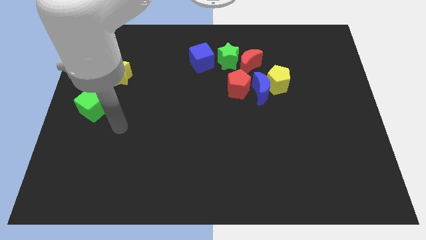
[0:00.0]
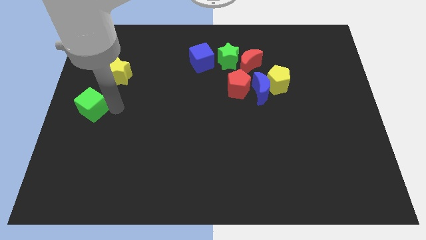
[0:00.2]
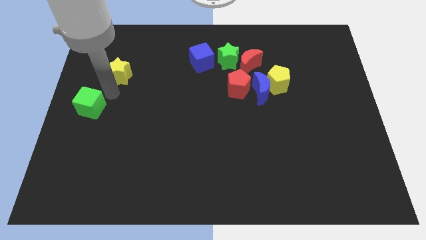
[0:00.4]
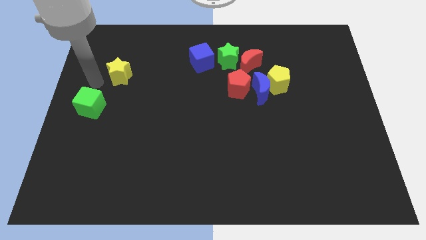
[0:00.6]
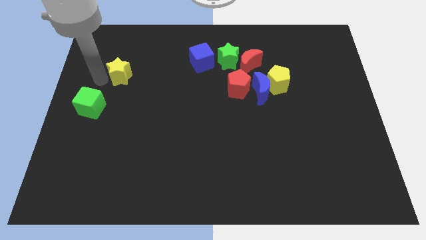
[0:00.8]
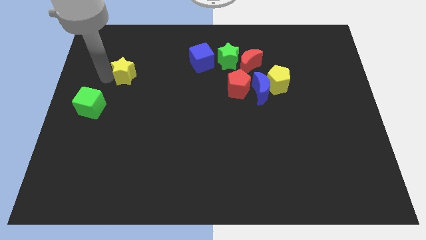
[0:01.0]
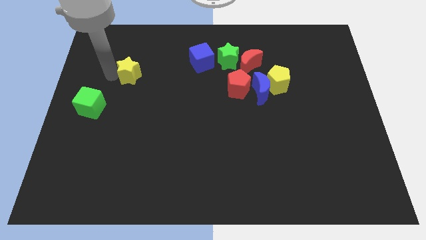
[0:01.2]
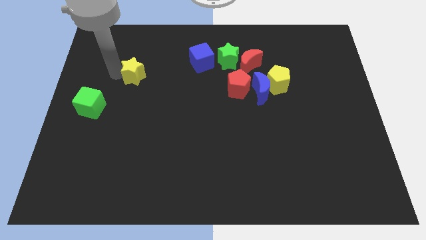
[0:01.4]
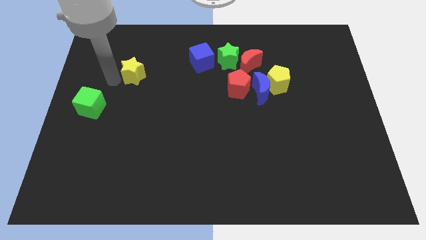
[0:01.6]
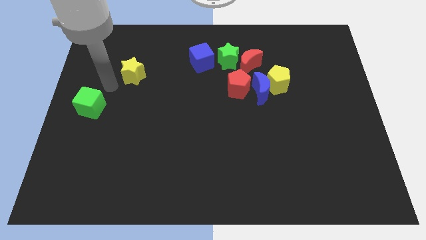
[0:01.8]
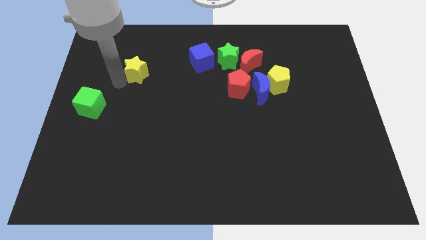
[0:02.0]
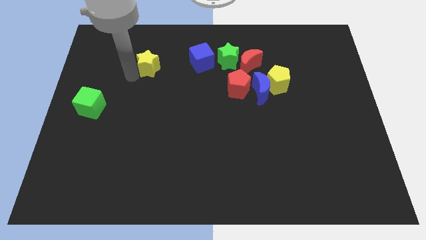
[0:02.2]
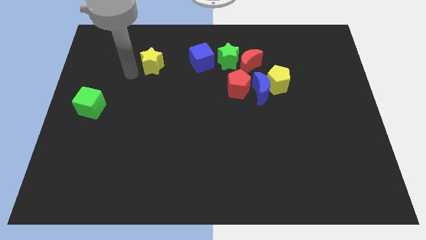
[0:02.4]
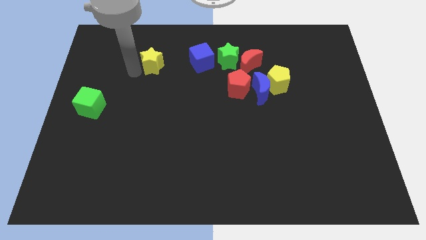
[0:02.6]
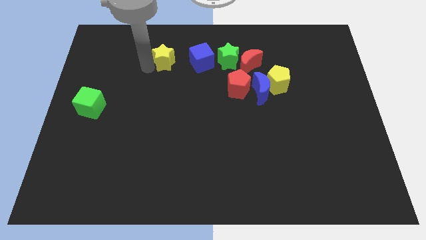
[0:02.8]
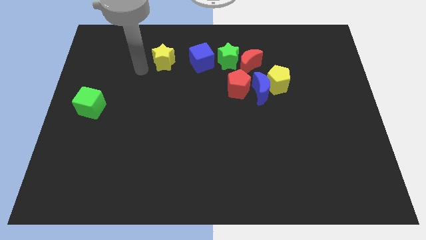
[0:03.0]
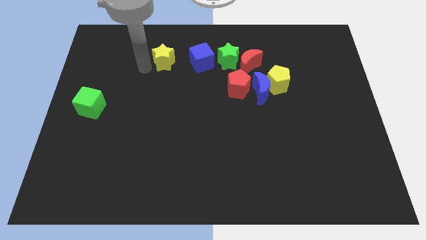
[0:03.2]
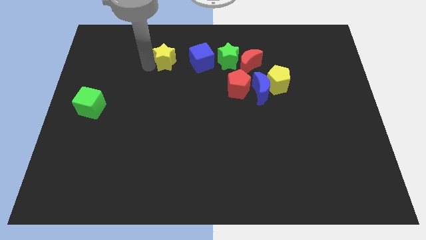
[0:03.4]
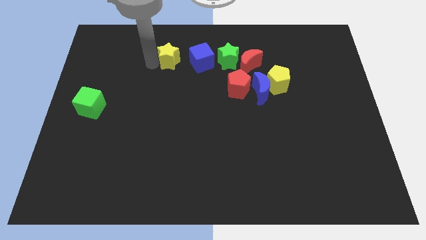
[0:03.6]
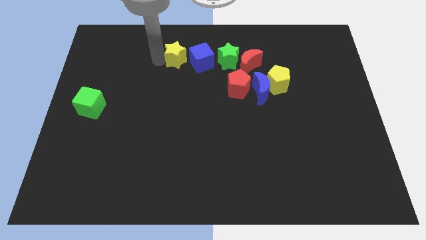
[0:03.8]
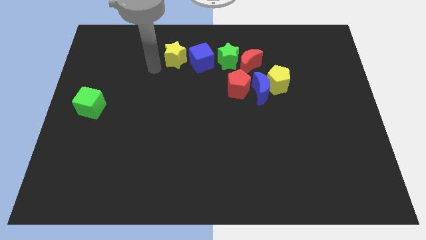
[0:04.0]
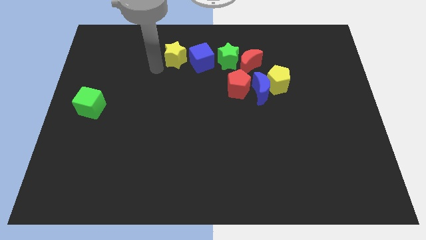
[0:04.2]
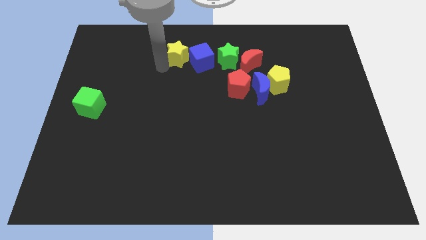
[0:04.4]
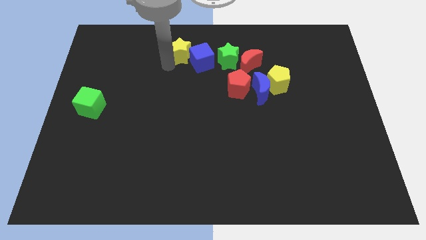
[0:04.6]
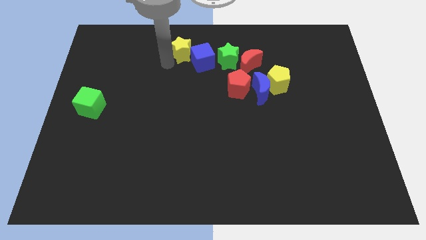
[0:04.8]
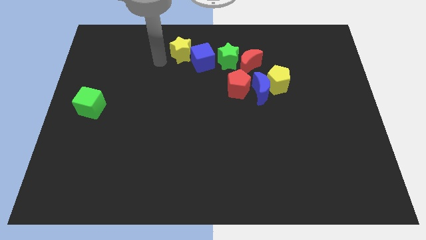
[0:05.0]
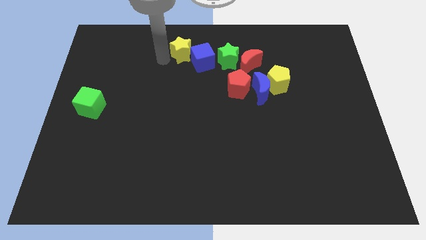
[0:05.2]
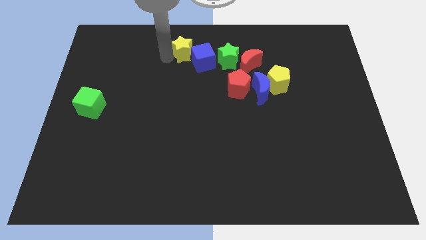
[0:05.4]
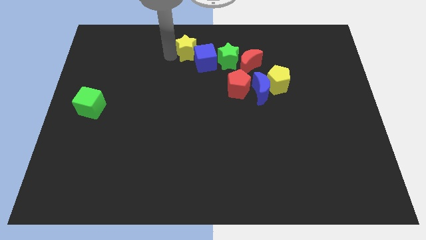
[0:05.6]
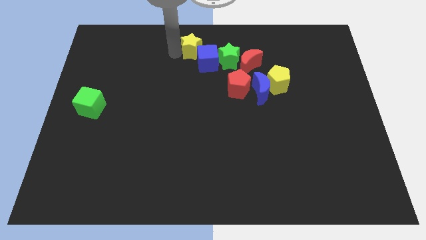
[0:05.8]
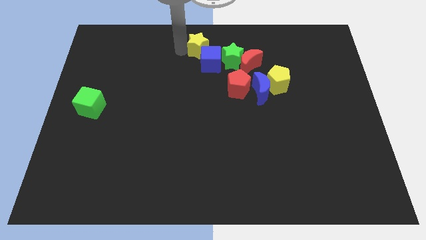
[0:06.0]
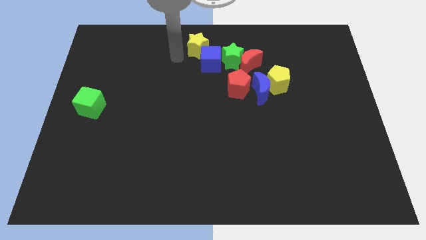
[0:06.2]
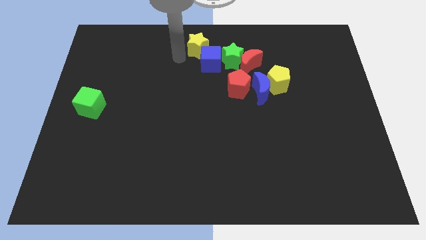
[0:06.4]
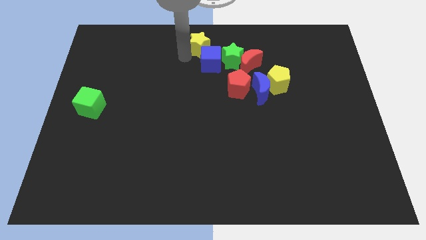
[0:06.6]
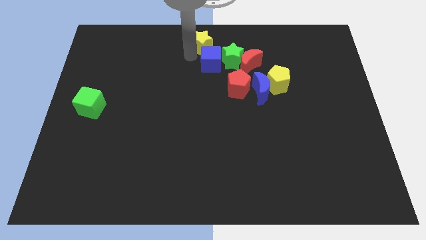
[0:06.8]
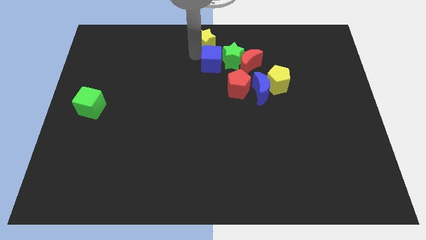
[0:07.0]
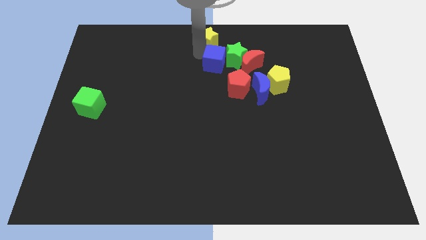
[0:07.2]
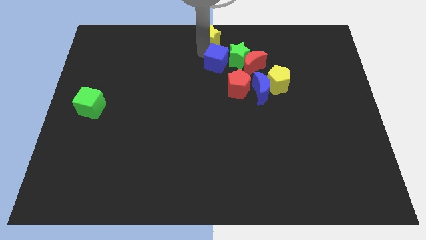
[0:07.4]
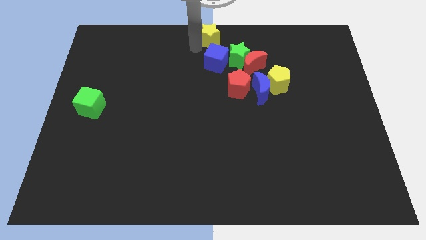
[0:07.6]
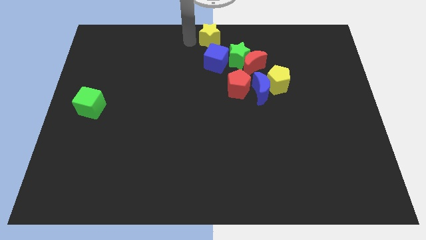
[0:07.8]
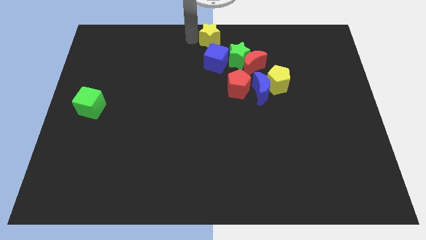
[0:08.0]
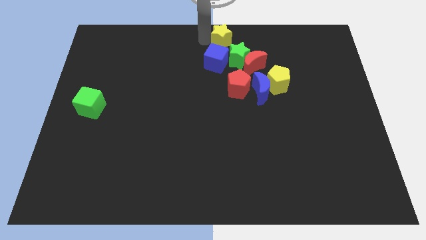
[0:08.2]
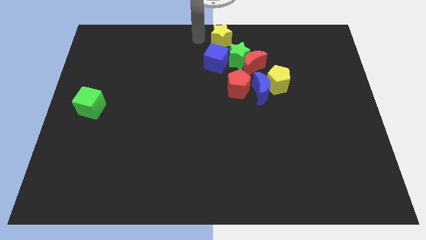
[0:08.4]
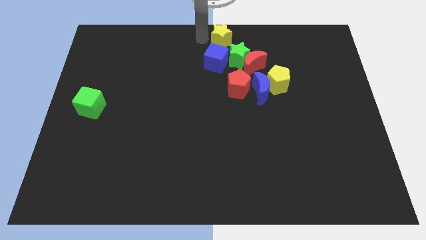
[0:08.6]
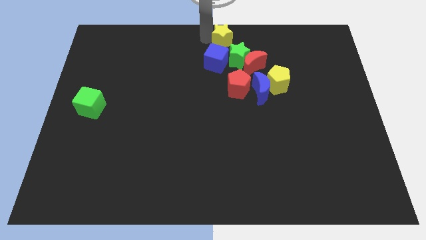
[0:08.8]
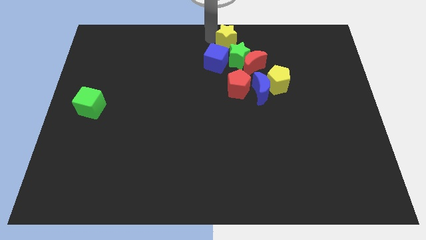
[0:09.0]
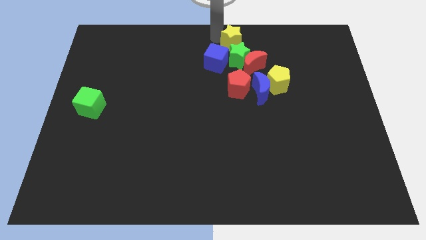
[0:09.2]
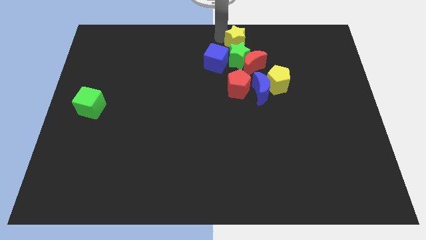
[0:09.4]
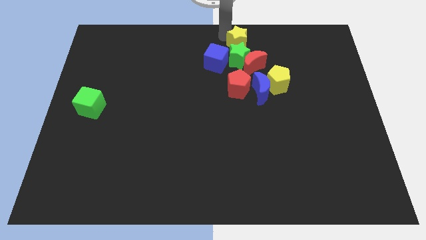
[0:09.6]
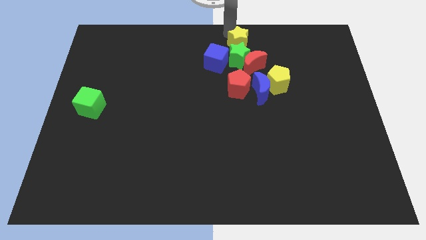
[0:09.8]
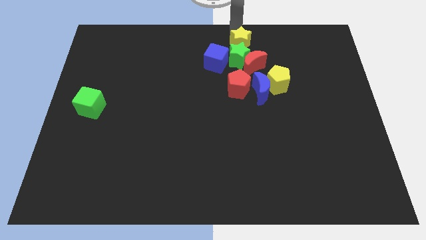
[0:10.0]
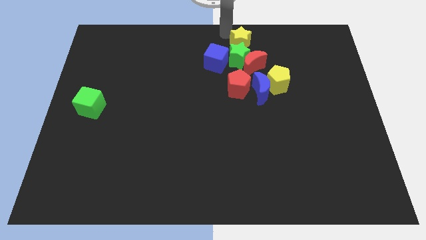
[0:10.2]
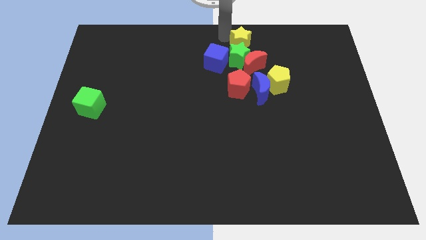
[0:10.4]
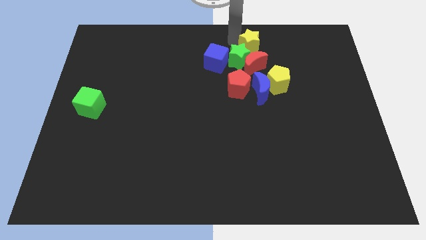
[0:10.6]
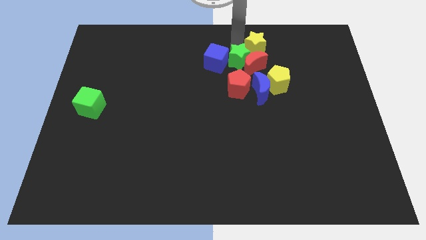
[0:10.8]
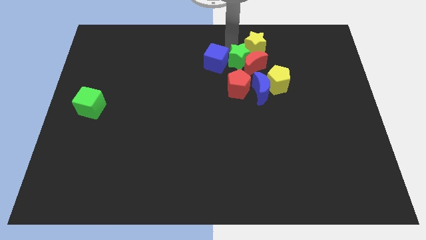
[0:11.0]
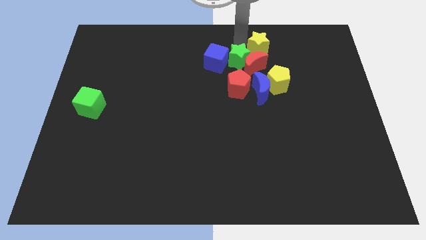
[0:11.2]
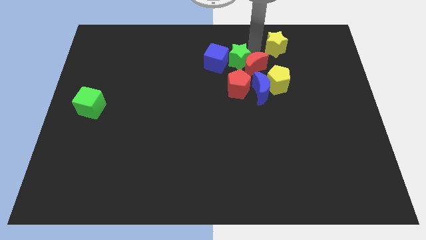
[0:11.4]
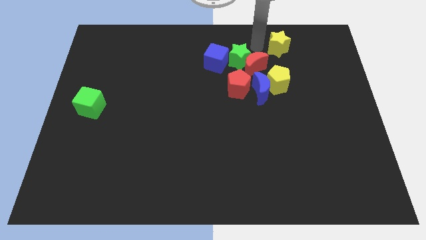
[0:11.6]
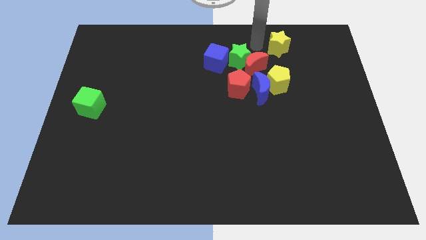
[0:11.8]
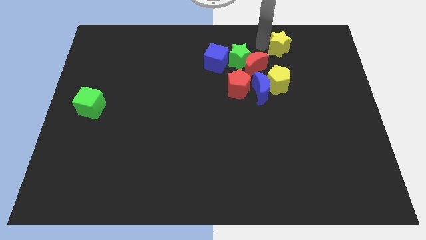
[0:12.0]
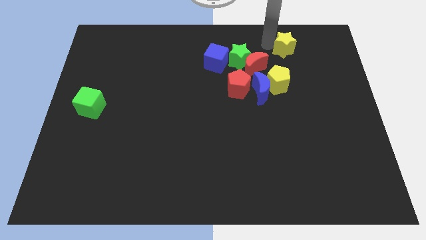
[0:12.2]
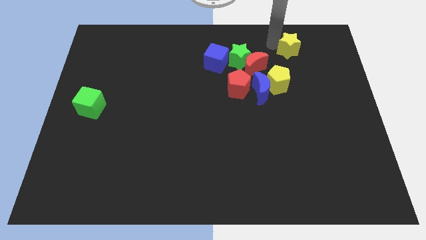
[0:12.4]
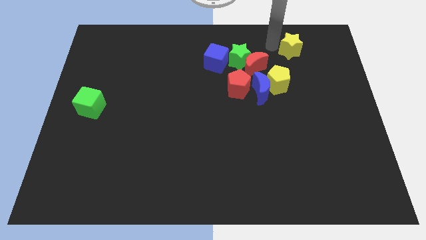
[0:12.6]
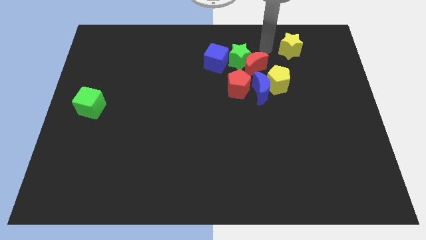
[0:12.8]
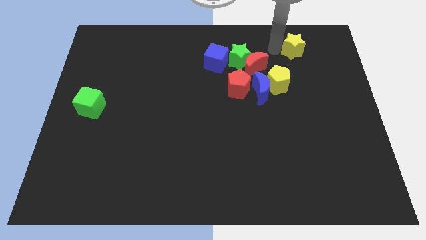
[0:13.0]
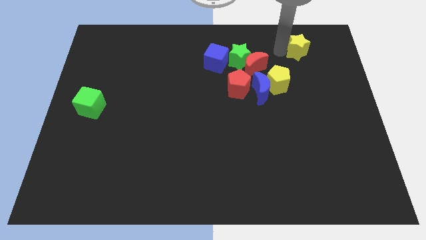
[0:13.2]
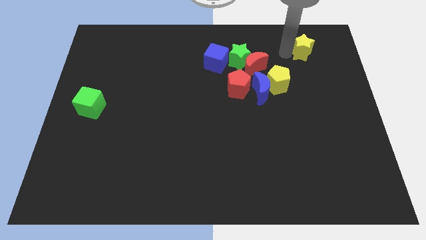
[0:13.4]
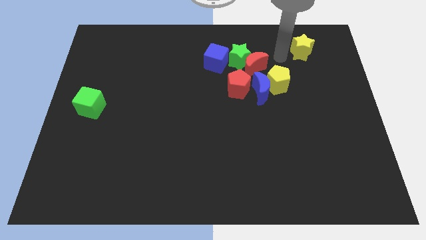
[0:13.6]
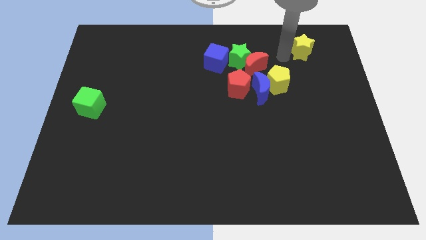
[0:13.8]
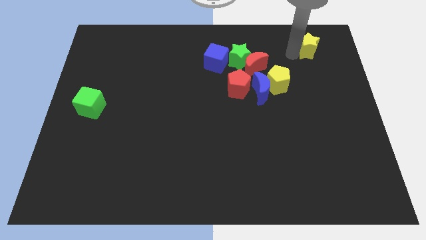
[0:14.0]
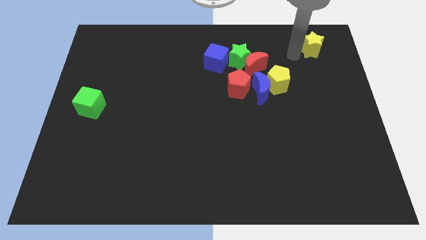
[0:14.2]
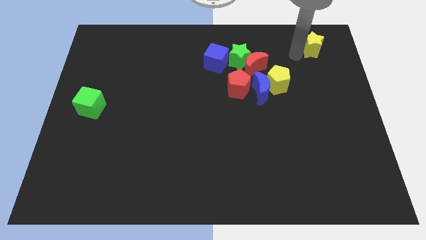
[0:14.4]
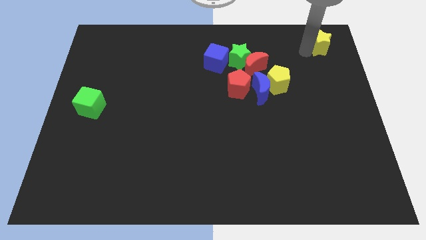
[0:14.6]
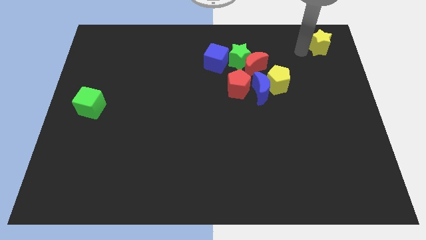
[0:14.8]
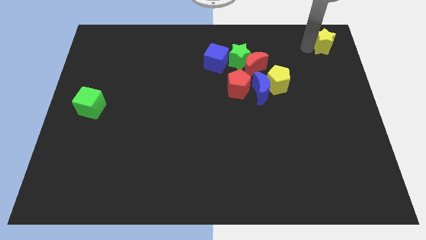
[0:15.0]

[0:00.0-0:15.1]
move the yellow star to the top right corner
